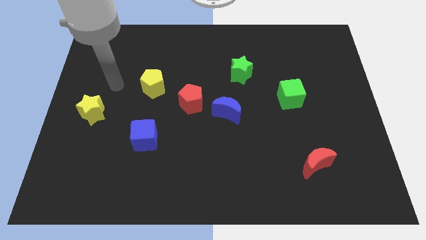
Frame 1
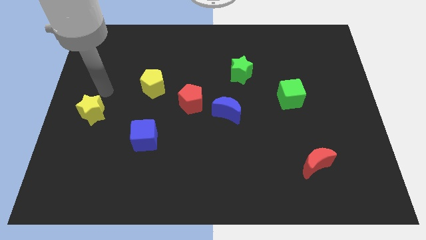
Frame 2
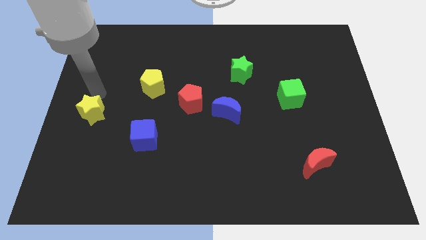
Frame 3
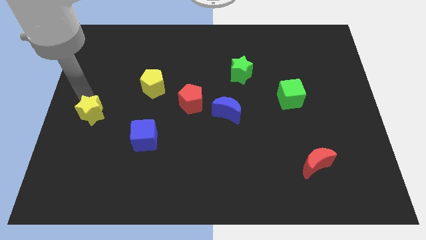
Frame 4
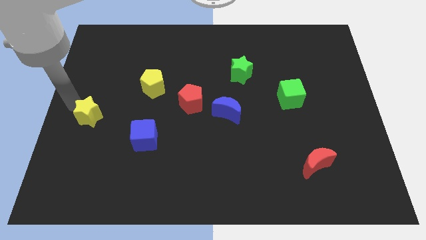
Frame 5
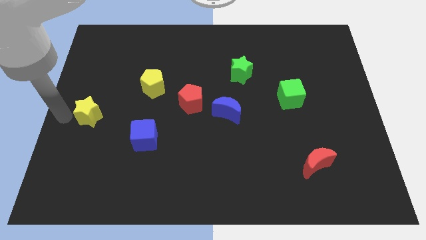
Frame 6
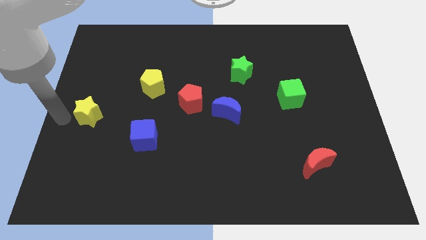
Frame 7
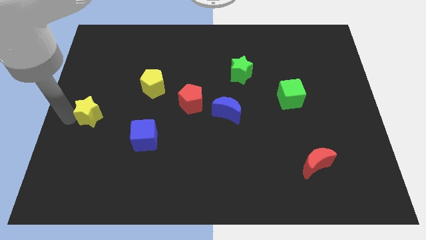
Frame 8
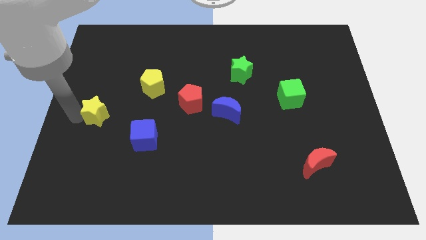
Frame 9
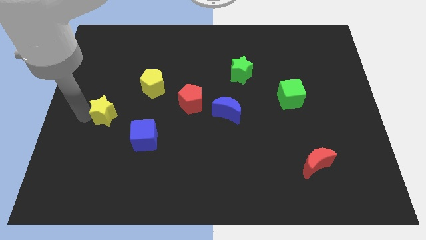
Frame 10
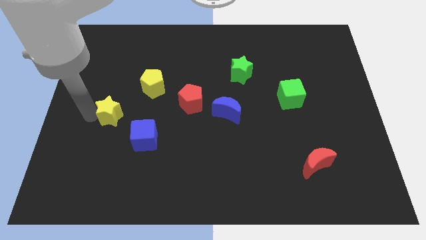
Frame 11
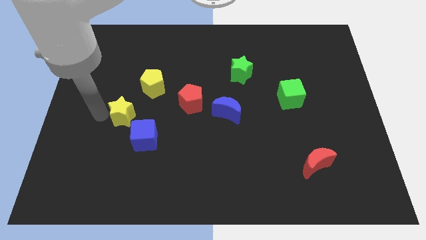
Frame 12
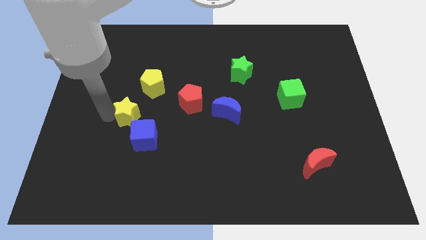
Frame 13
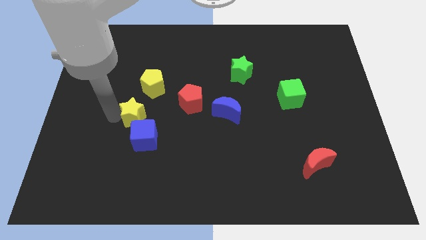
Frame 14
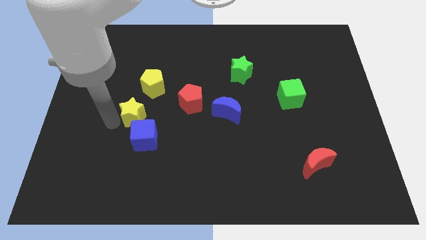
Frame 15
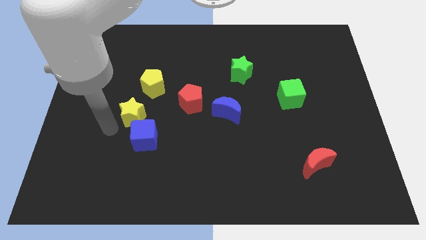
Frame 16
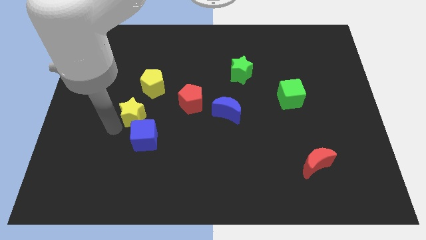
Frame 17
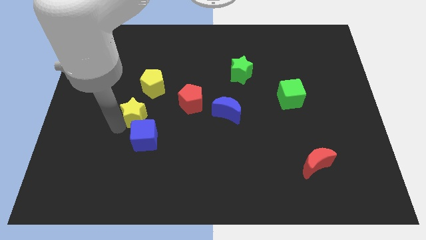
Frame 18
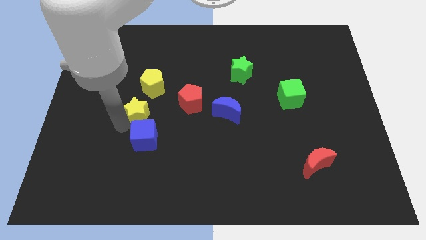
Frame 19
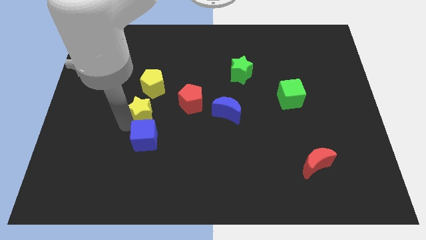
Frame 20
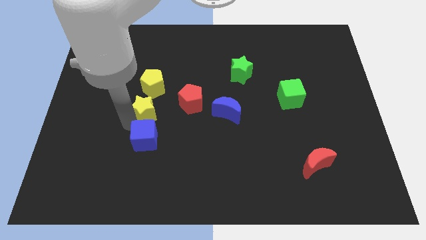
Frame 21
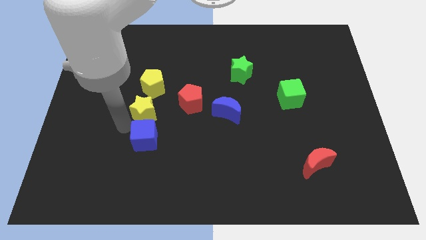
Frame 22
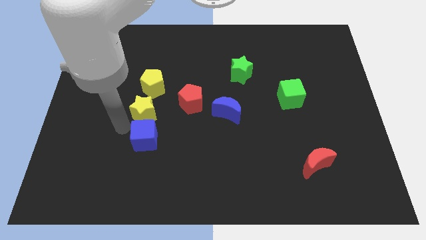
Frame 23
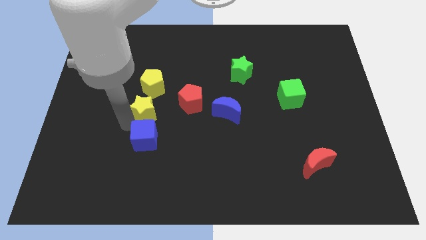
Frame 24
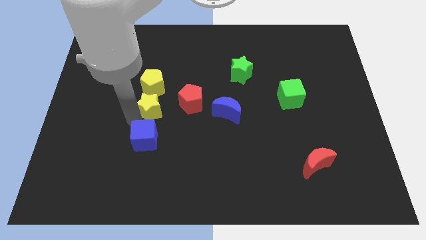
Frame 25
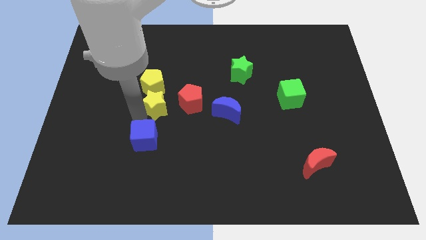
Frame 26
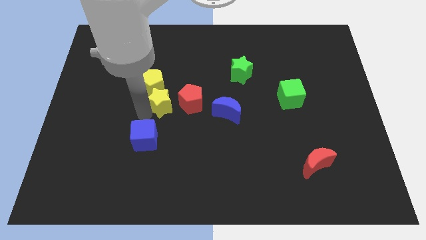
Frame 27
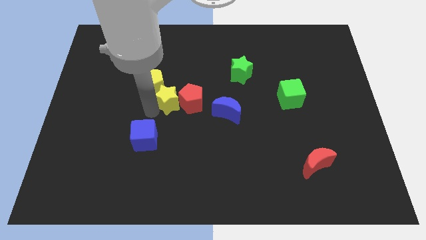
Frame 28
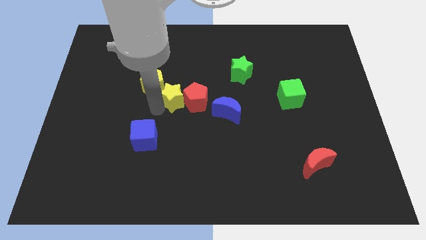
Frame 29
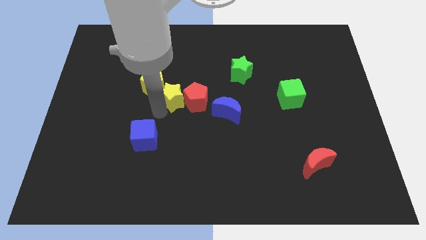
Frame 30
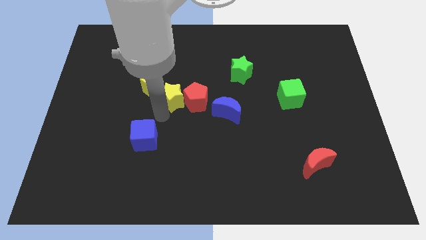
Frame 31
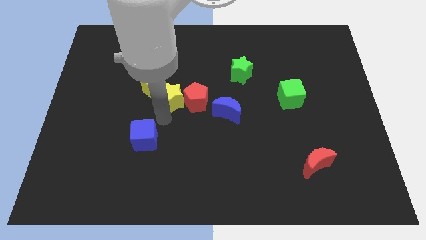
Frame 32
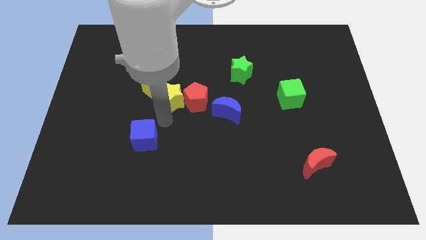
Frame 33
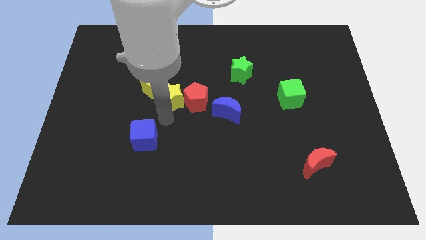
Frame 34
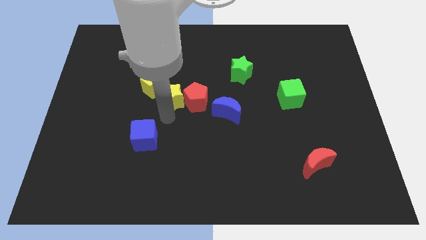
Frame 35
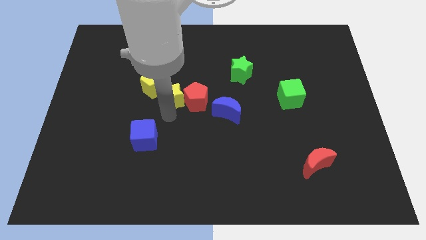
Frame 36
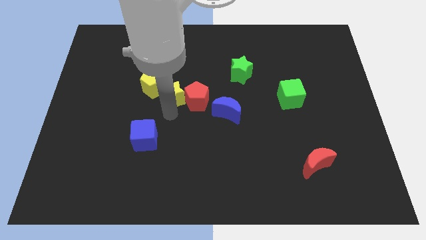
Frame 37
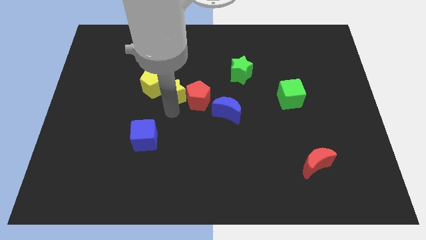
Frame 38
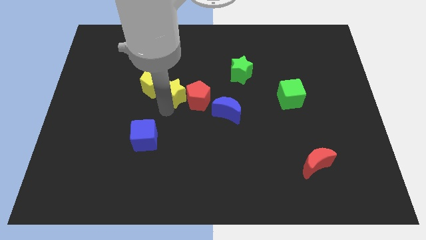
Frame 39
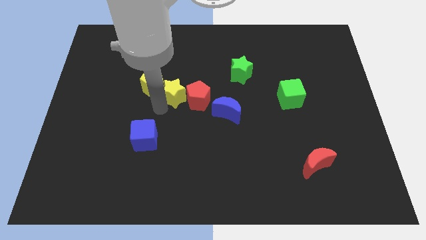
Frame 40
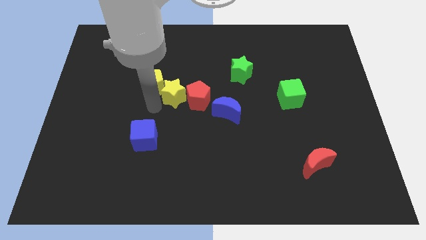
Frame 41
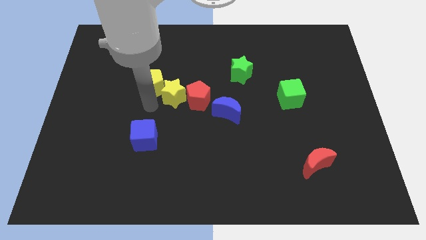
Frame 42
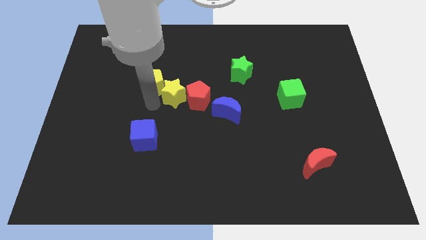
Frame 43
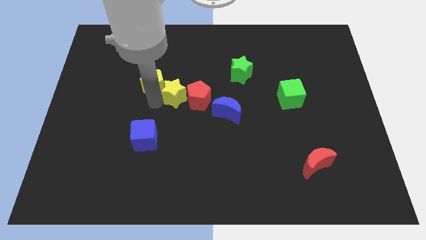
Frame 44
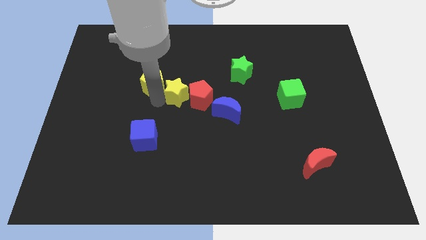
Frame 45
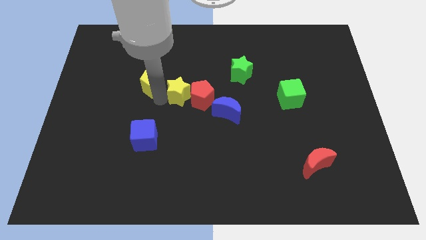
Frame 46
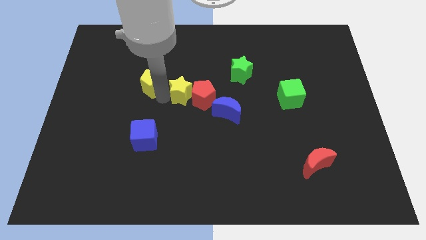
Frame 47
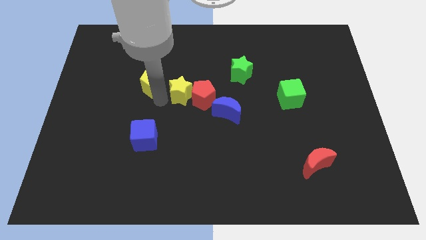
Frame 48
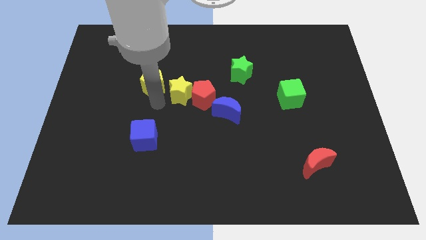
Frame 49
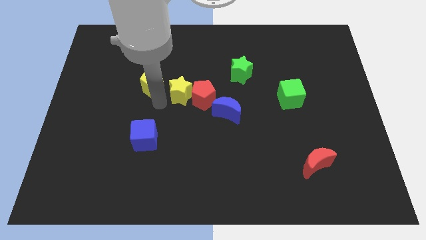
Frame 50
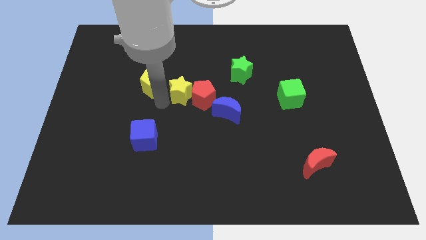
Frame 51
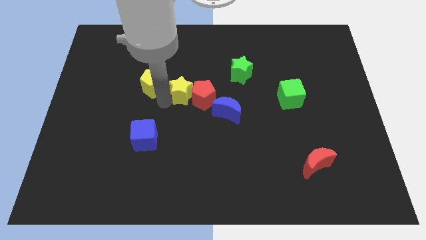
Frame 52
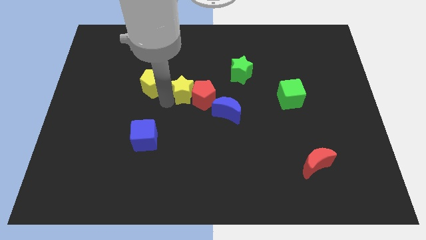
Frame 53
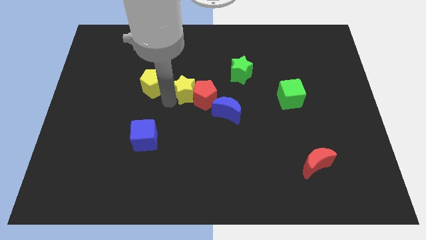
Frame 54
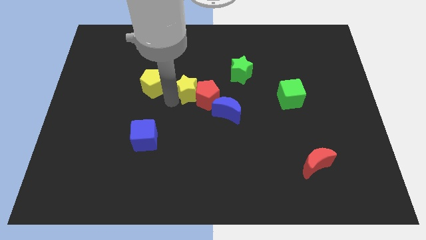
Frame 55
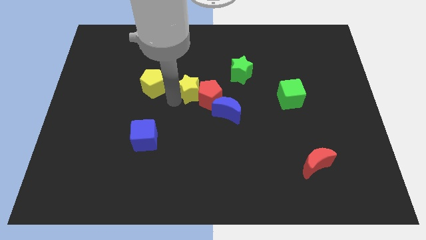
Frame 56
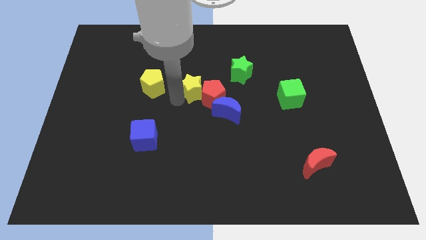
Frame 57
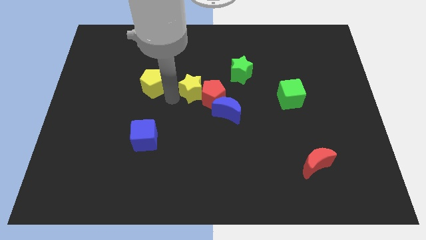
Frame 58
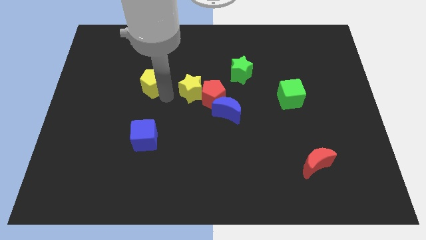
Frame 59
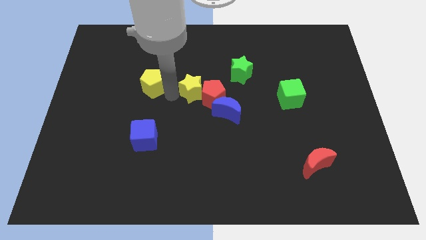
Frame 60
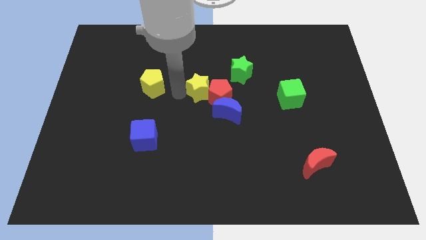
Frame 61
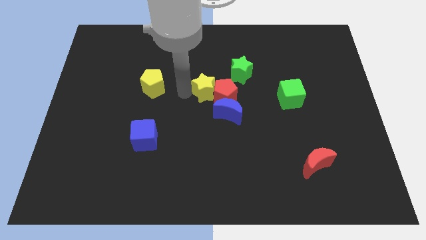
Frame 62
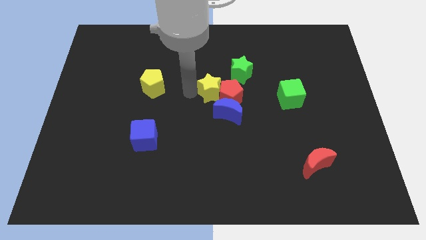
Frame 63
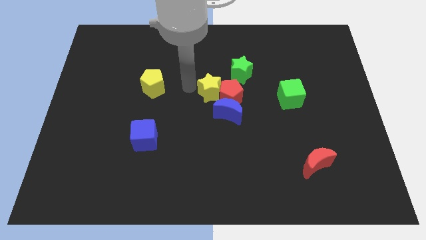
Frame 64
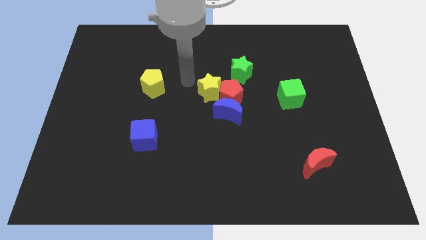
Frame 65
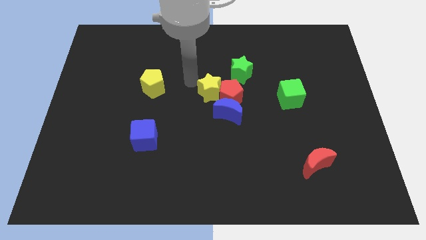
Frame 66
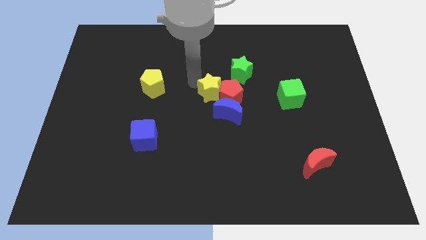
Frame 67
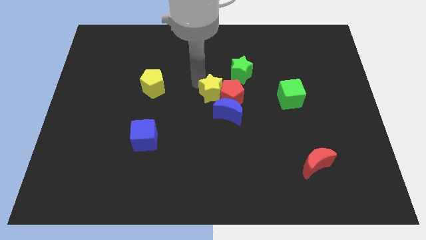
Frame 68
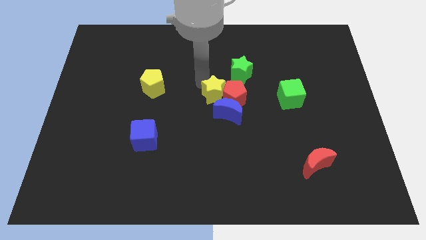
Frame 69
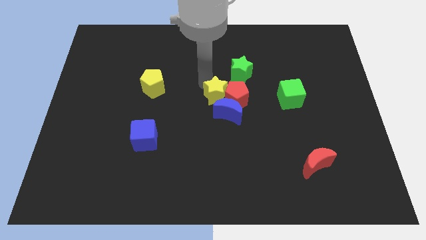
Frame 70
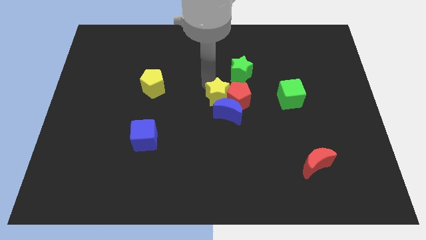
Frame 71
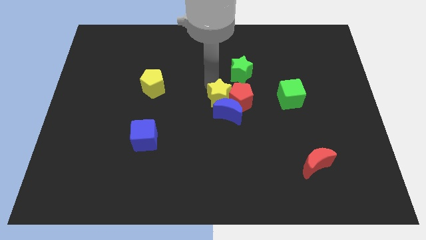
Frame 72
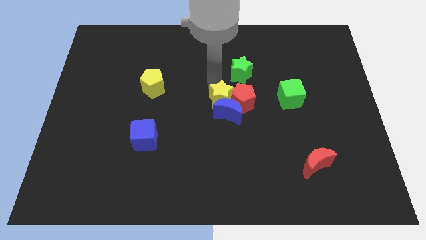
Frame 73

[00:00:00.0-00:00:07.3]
move the yellow star to the bottom side of the green star

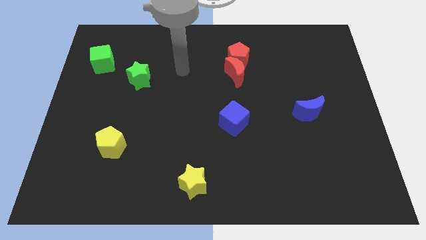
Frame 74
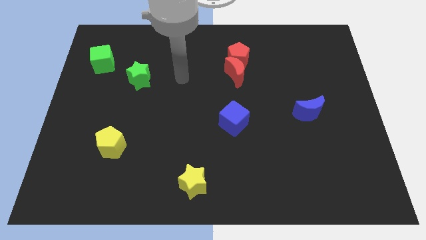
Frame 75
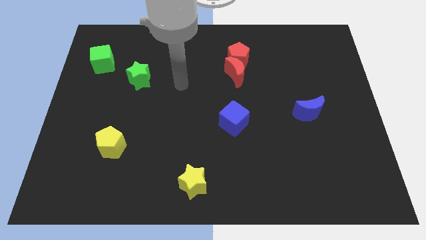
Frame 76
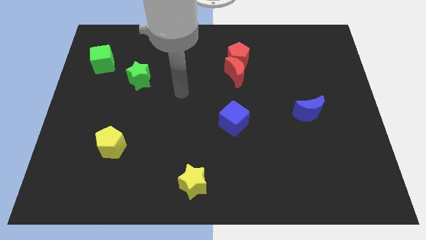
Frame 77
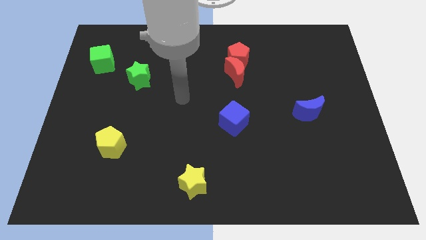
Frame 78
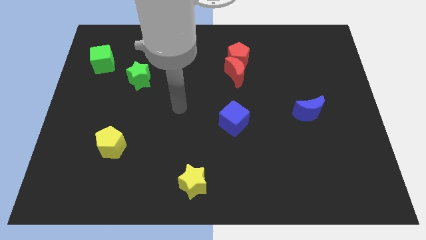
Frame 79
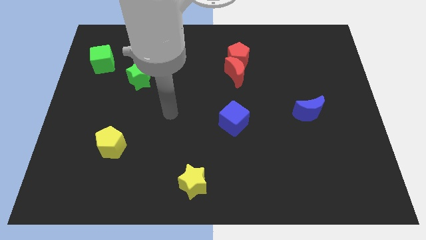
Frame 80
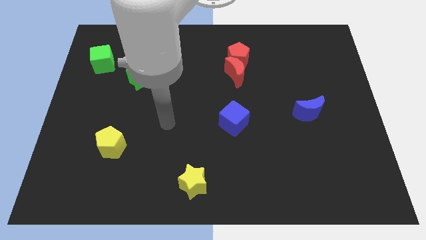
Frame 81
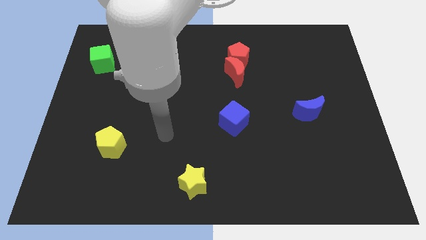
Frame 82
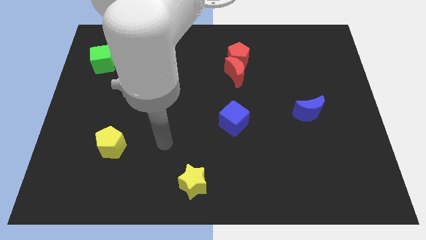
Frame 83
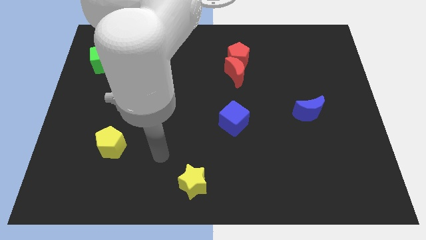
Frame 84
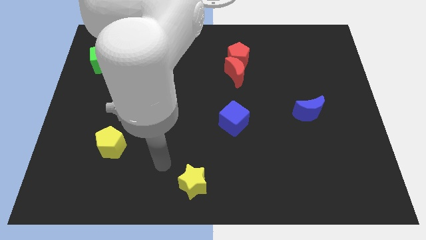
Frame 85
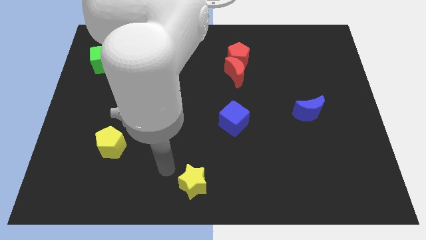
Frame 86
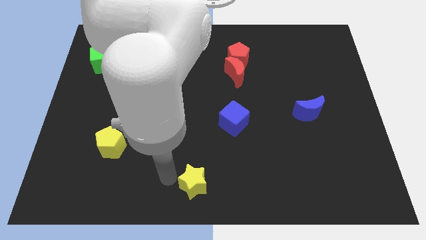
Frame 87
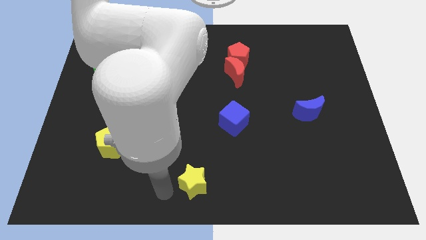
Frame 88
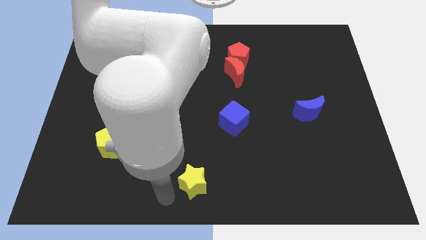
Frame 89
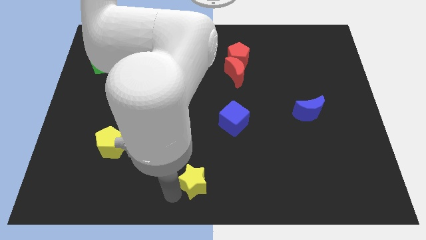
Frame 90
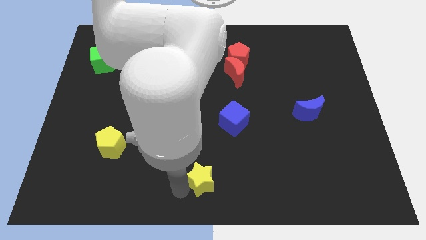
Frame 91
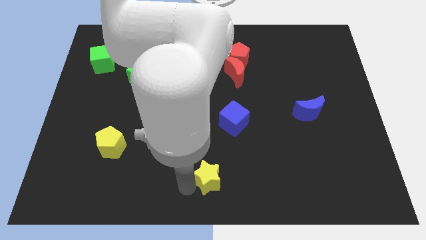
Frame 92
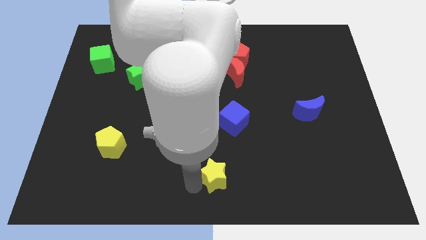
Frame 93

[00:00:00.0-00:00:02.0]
move the yellow star to the bottom side of the blue cube
